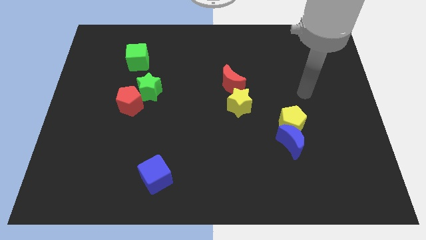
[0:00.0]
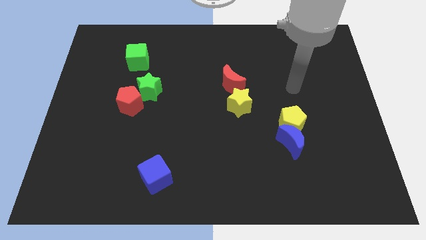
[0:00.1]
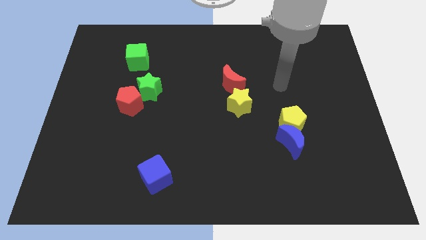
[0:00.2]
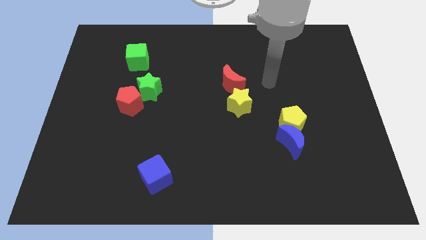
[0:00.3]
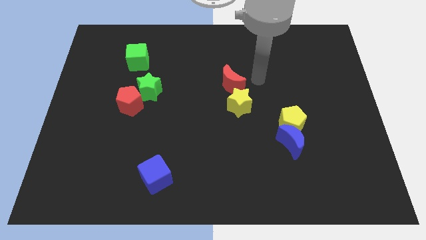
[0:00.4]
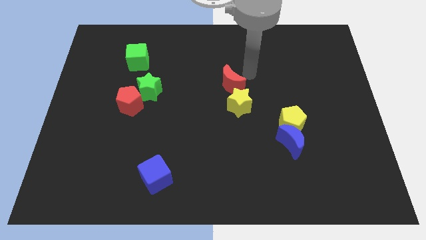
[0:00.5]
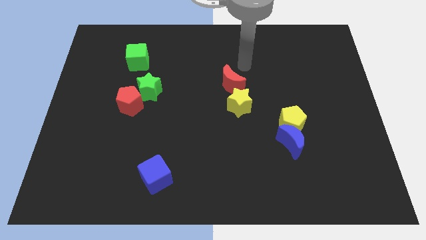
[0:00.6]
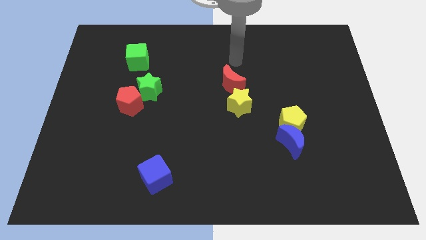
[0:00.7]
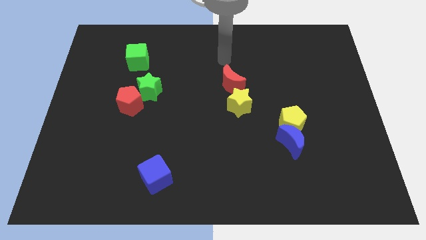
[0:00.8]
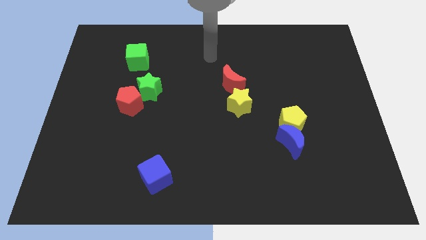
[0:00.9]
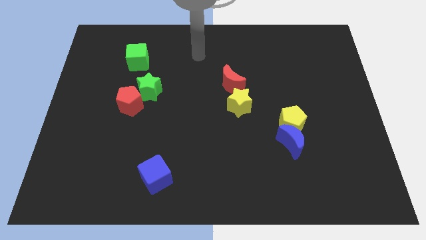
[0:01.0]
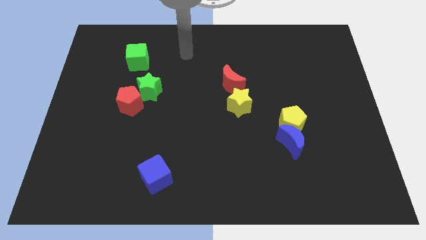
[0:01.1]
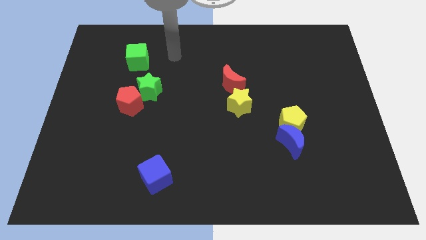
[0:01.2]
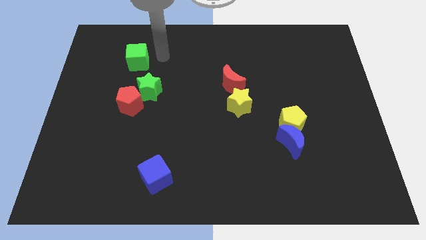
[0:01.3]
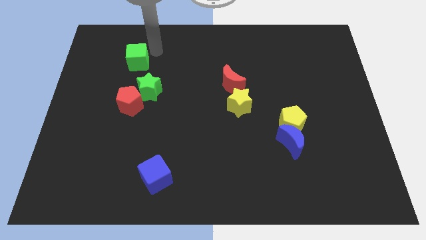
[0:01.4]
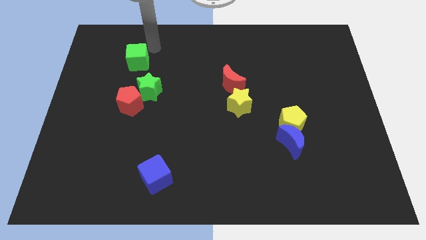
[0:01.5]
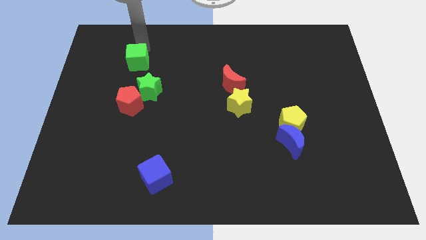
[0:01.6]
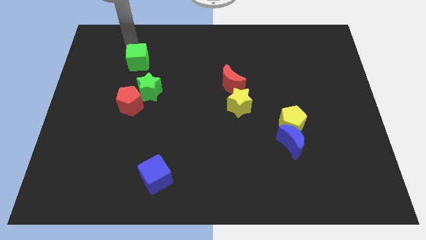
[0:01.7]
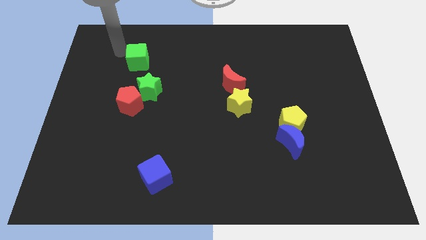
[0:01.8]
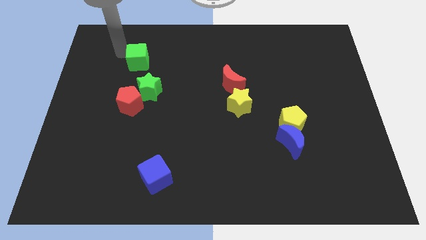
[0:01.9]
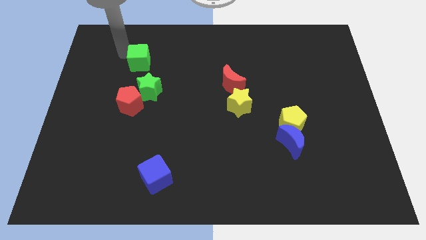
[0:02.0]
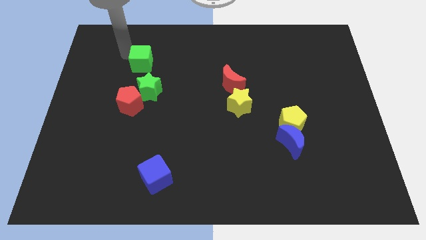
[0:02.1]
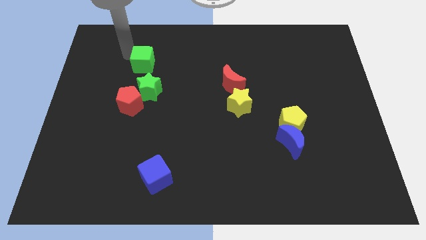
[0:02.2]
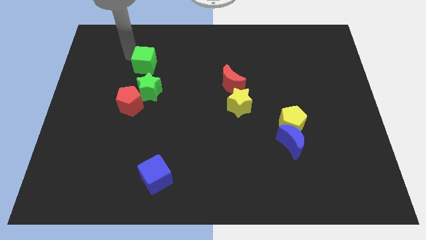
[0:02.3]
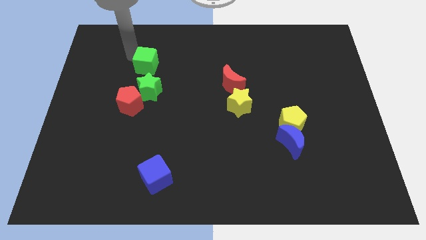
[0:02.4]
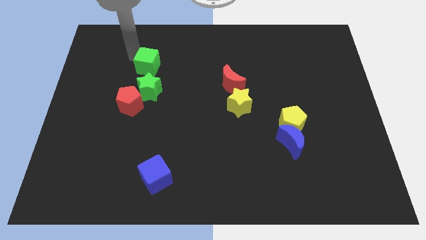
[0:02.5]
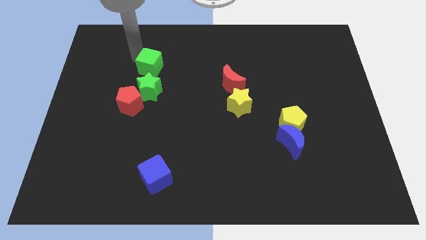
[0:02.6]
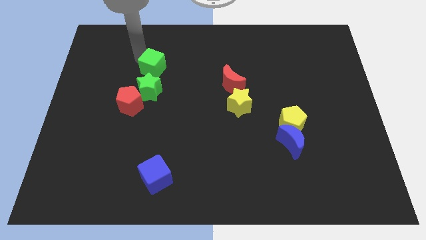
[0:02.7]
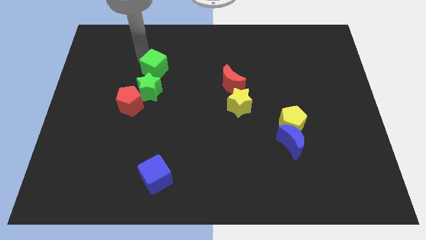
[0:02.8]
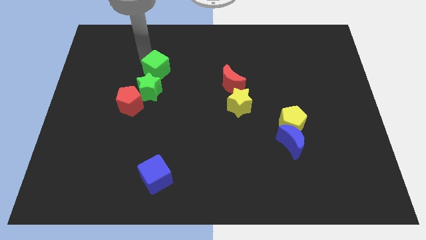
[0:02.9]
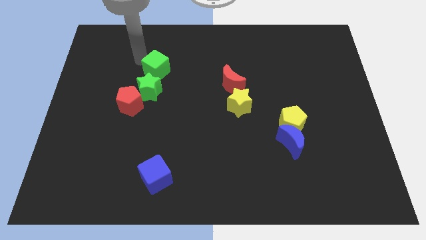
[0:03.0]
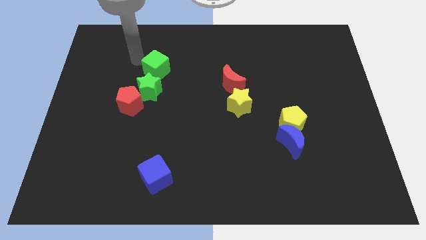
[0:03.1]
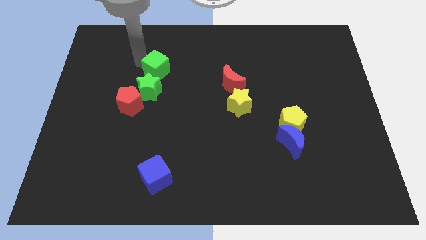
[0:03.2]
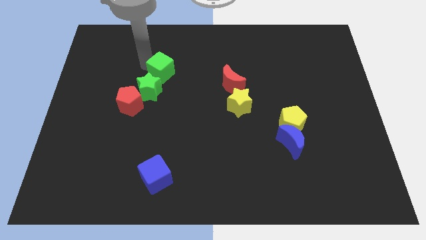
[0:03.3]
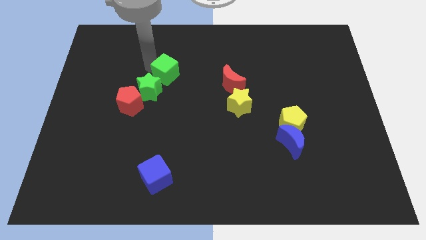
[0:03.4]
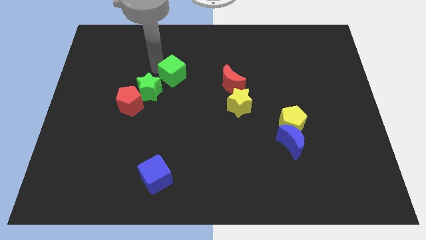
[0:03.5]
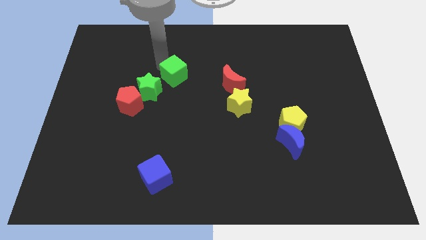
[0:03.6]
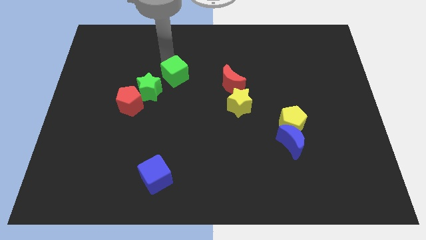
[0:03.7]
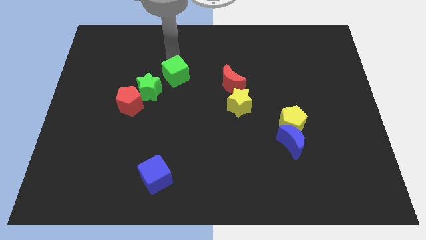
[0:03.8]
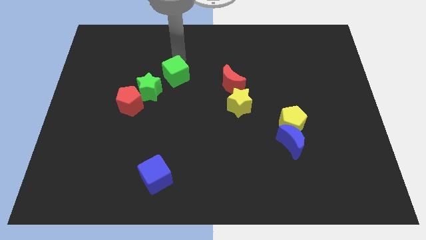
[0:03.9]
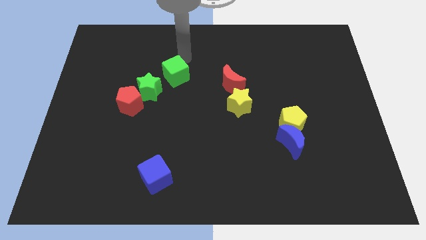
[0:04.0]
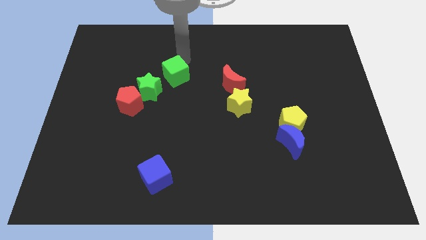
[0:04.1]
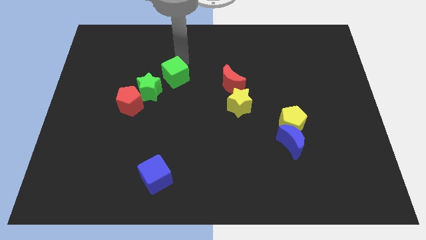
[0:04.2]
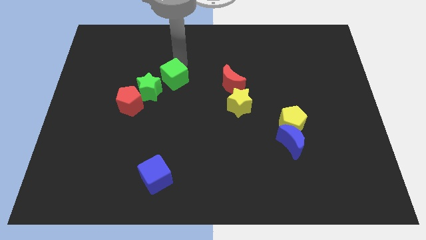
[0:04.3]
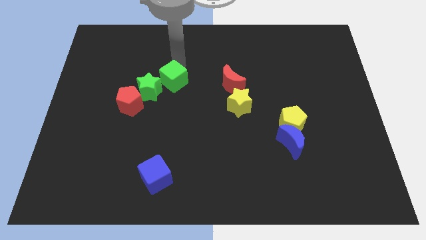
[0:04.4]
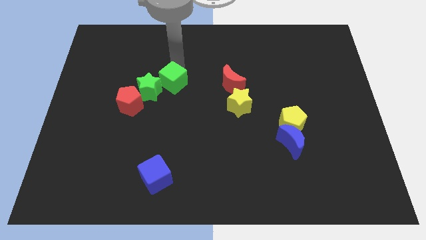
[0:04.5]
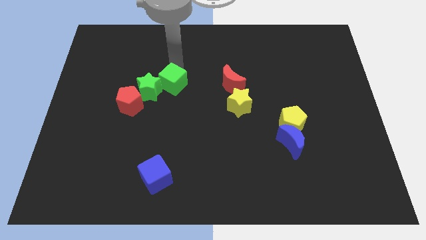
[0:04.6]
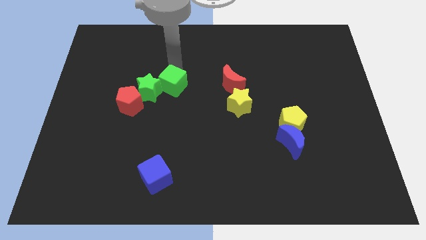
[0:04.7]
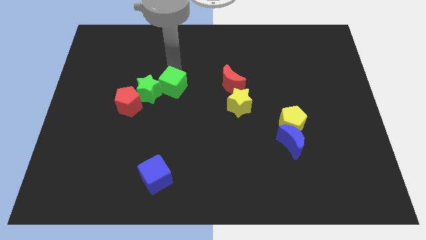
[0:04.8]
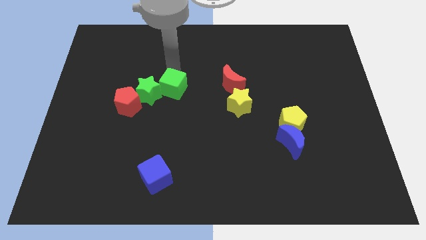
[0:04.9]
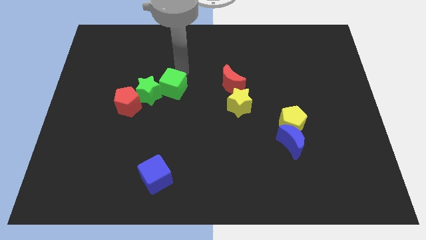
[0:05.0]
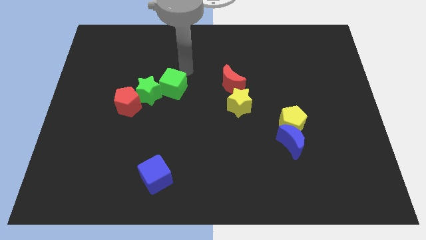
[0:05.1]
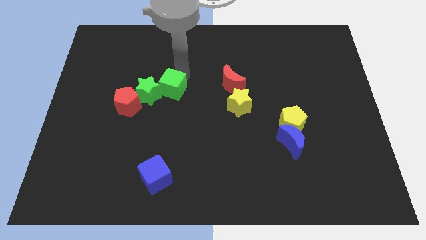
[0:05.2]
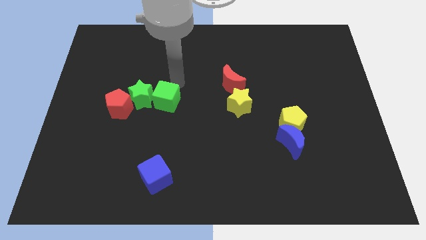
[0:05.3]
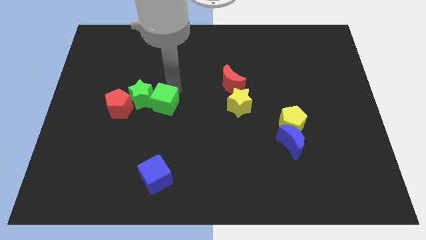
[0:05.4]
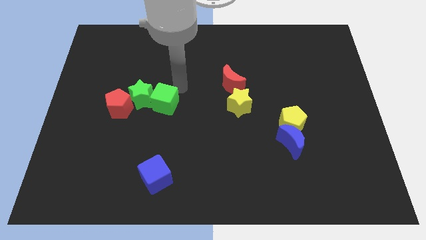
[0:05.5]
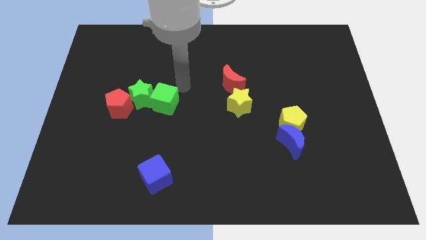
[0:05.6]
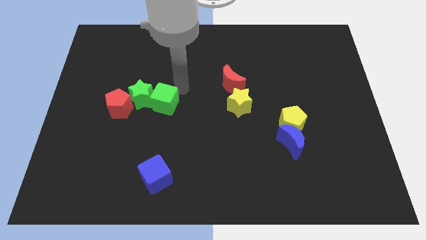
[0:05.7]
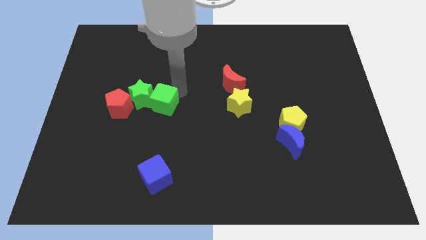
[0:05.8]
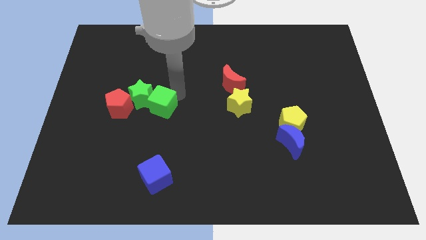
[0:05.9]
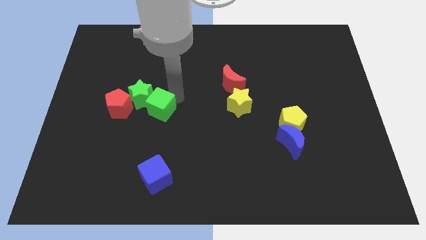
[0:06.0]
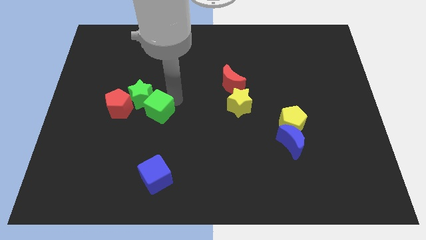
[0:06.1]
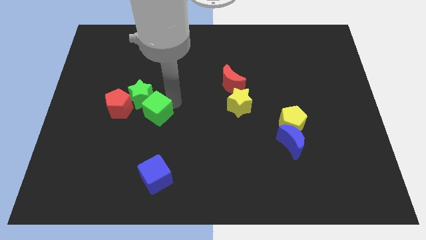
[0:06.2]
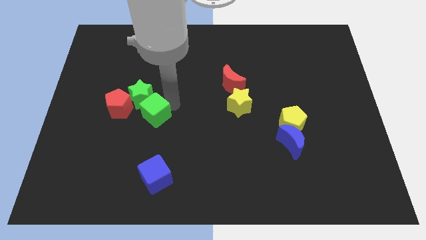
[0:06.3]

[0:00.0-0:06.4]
move the green cube to the bottom right of the red pentagon

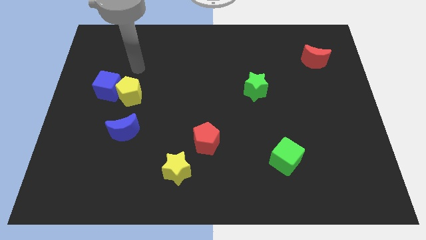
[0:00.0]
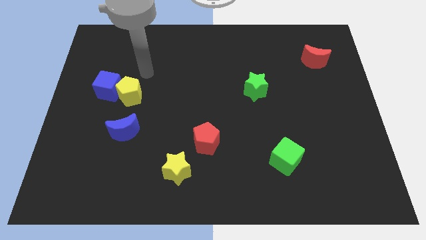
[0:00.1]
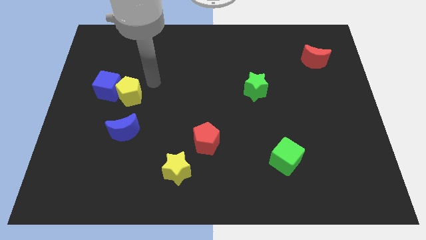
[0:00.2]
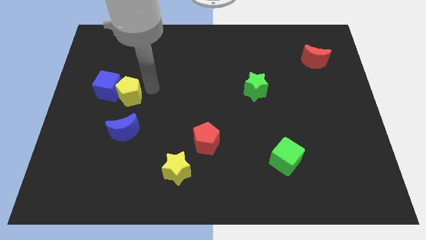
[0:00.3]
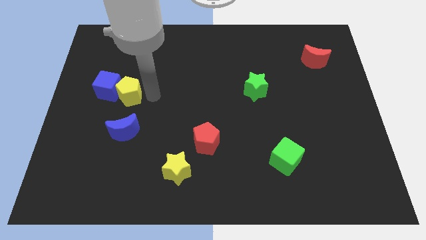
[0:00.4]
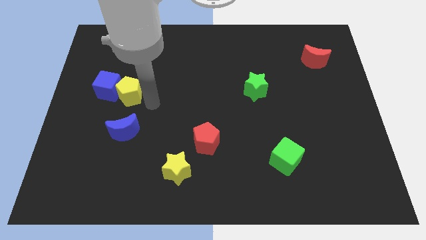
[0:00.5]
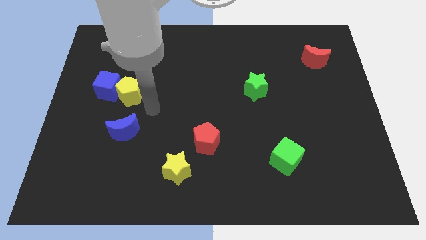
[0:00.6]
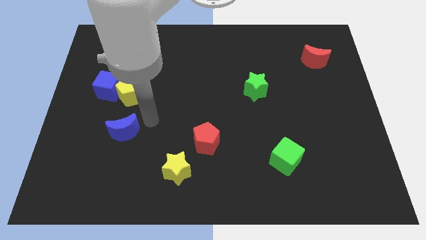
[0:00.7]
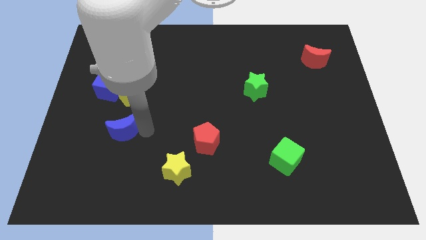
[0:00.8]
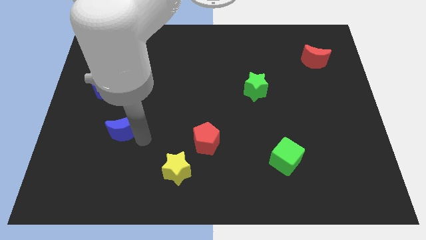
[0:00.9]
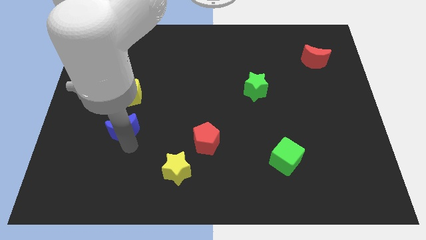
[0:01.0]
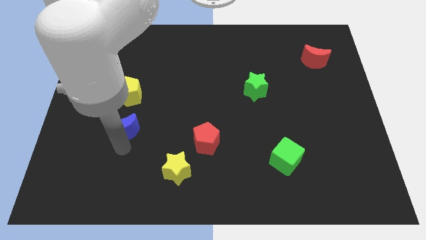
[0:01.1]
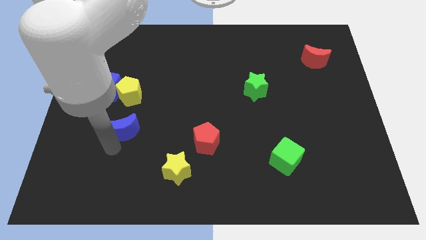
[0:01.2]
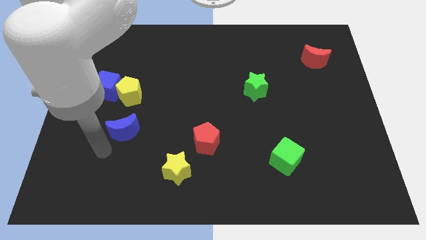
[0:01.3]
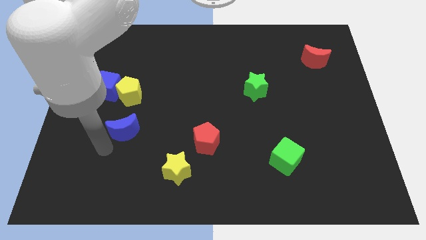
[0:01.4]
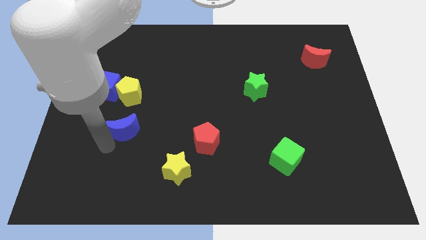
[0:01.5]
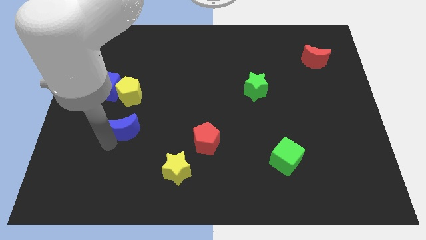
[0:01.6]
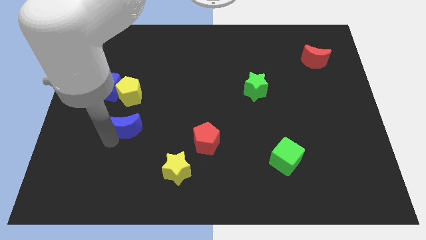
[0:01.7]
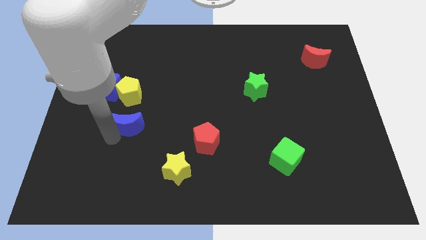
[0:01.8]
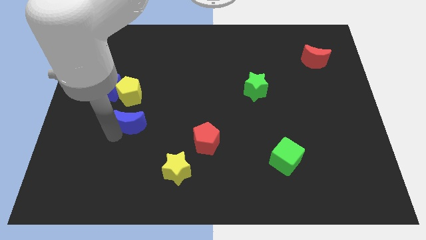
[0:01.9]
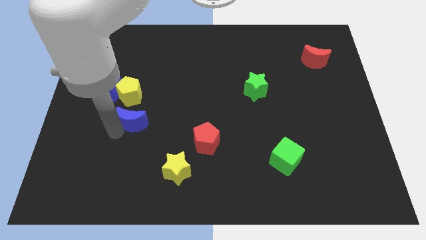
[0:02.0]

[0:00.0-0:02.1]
put the blue moon to the bottom right of the yellow pentagon
